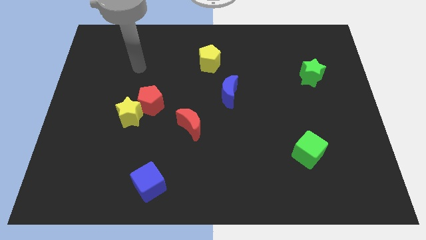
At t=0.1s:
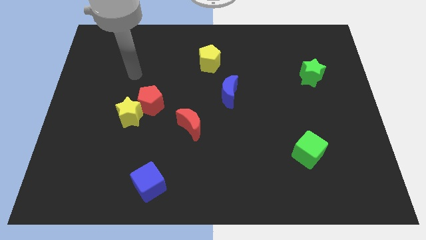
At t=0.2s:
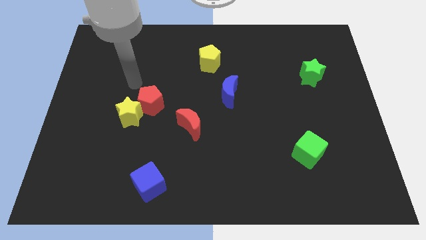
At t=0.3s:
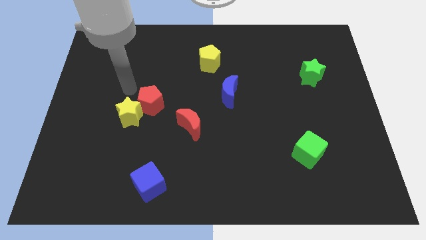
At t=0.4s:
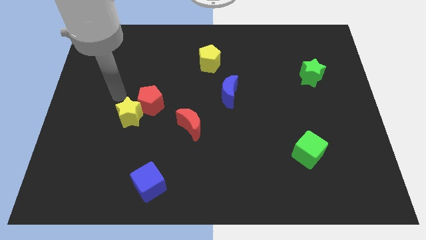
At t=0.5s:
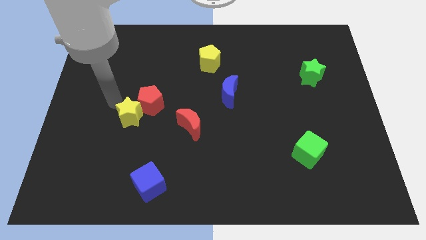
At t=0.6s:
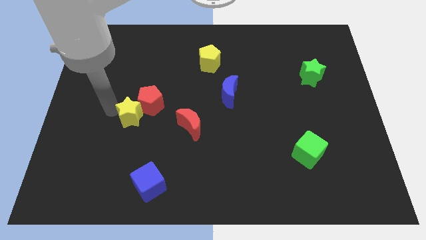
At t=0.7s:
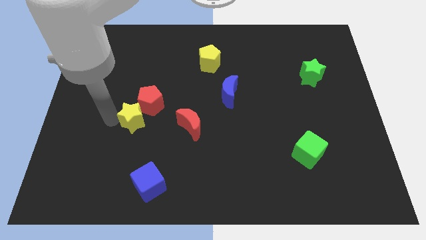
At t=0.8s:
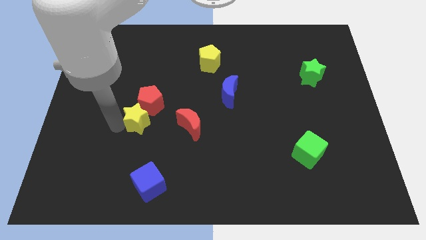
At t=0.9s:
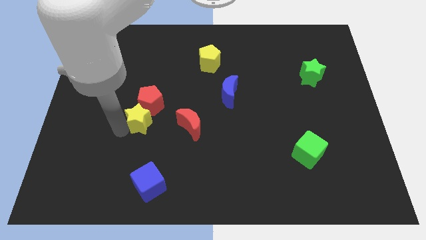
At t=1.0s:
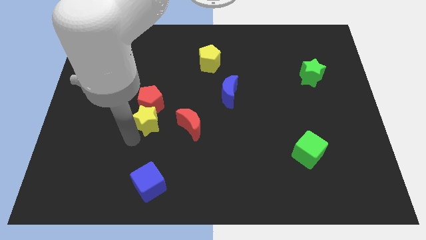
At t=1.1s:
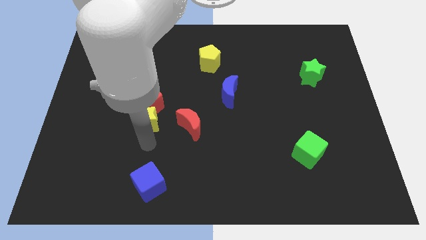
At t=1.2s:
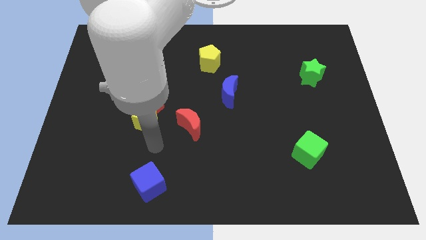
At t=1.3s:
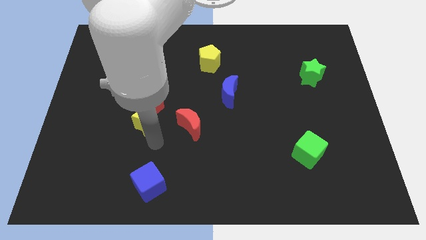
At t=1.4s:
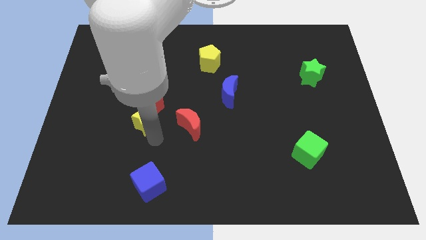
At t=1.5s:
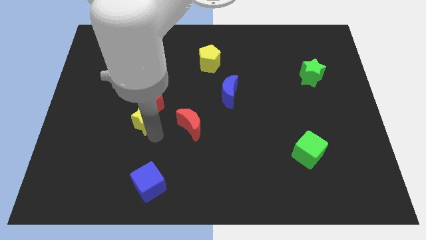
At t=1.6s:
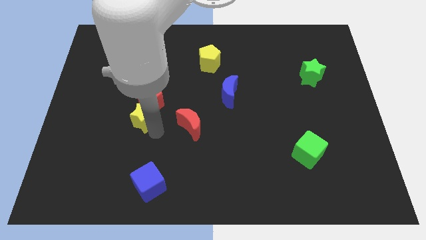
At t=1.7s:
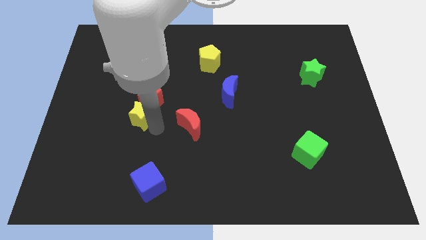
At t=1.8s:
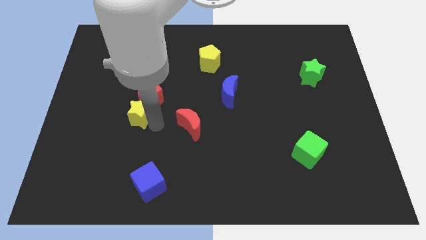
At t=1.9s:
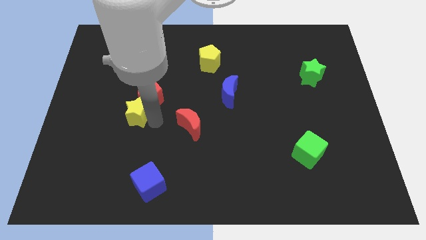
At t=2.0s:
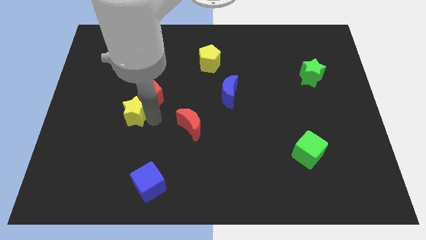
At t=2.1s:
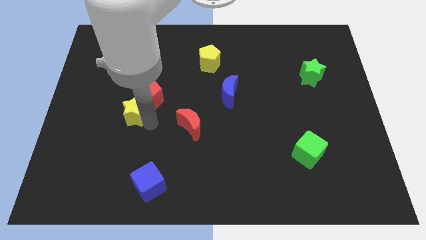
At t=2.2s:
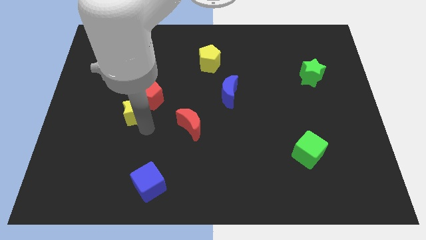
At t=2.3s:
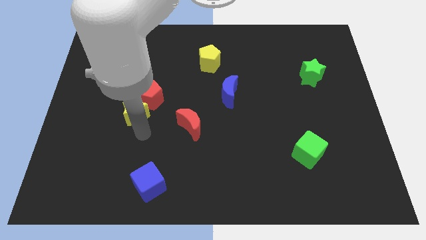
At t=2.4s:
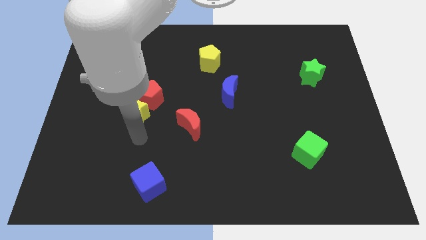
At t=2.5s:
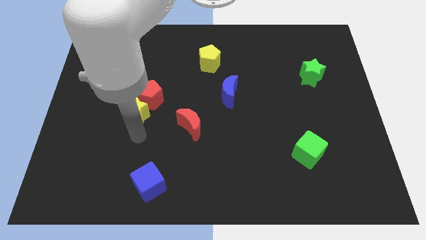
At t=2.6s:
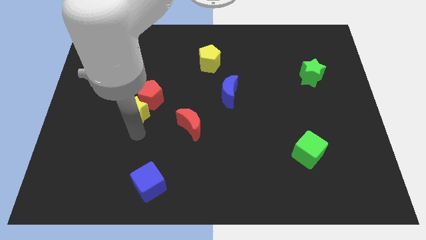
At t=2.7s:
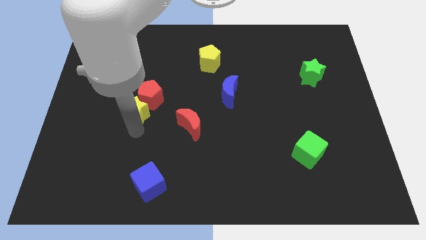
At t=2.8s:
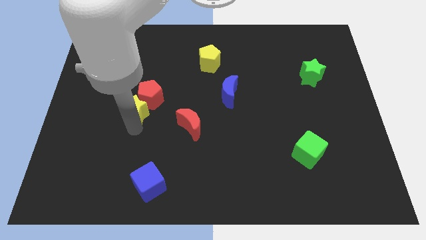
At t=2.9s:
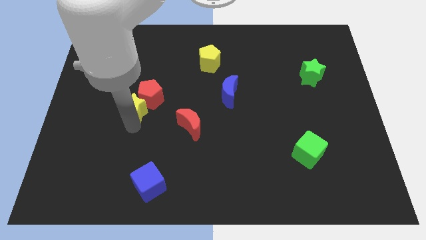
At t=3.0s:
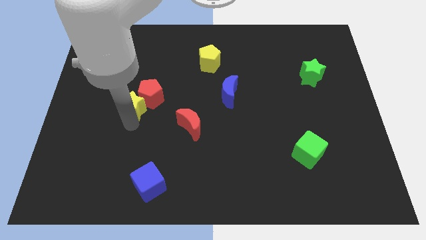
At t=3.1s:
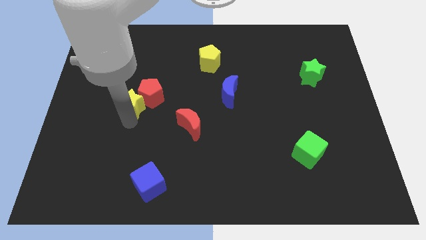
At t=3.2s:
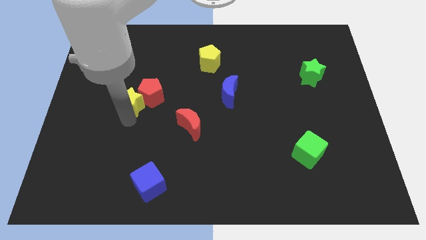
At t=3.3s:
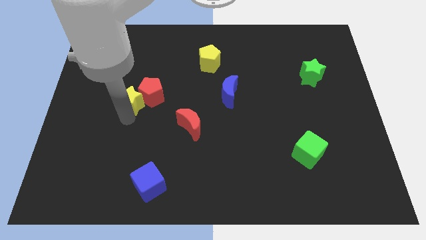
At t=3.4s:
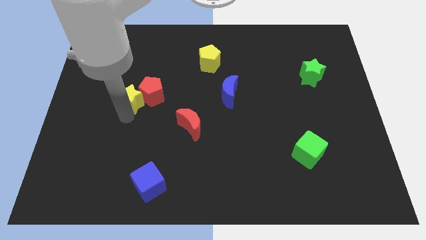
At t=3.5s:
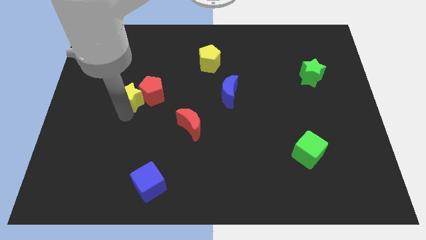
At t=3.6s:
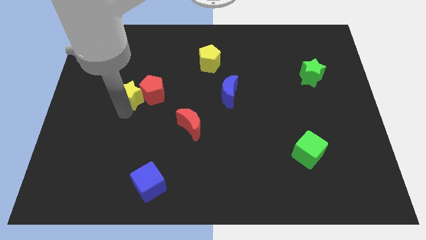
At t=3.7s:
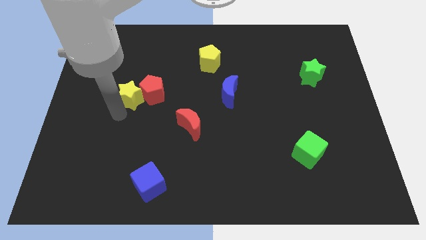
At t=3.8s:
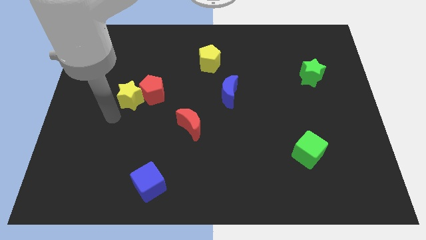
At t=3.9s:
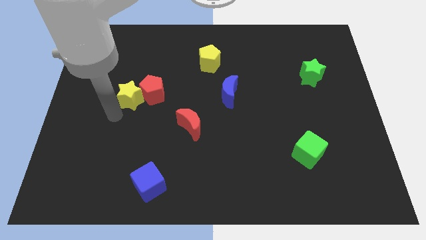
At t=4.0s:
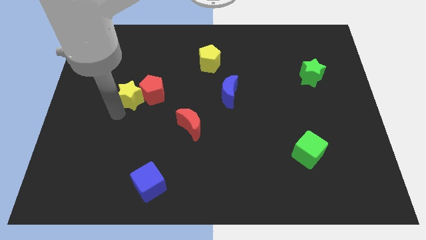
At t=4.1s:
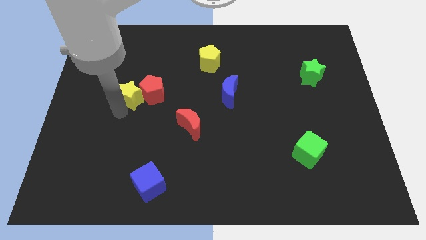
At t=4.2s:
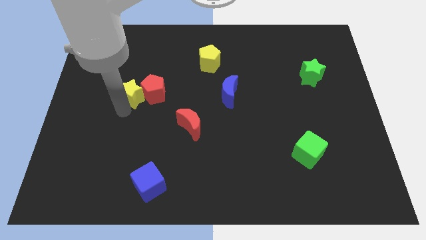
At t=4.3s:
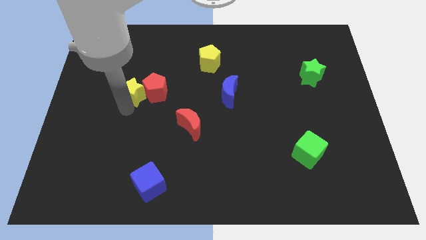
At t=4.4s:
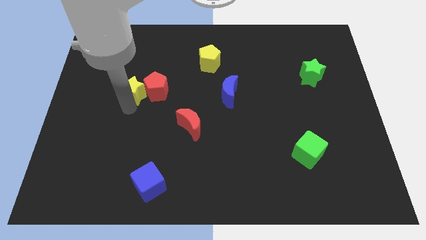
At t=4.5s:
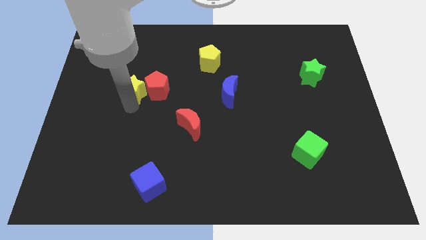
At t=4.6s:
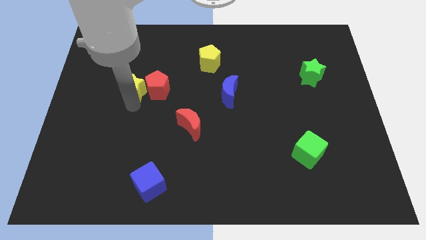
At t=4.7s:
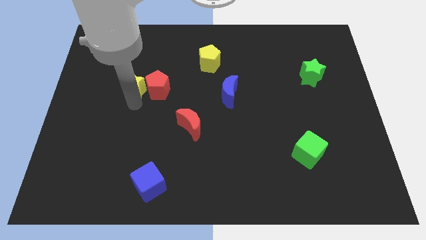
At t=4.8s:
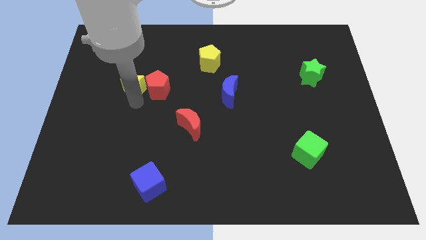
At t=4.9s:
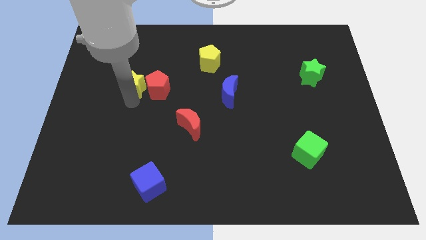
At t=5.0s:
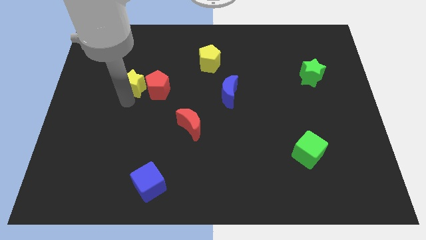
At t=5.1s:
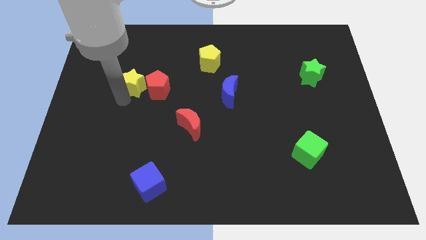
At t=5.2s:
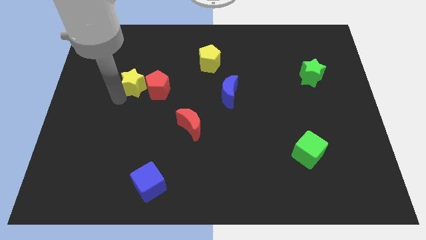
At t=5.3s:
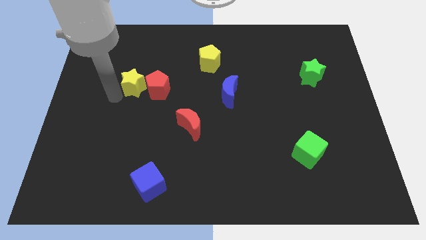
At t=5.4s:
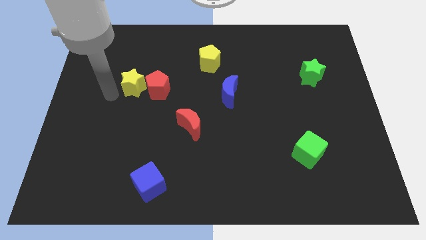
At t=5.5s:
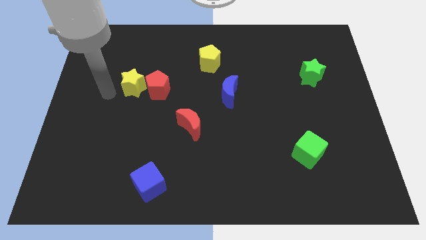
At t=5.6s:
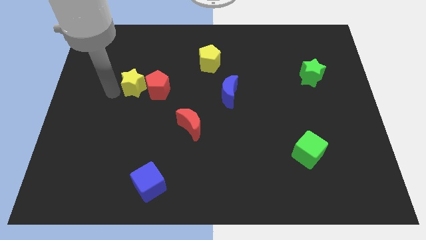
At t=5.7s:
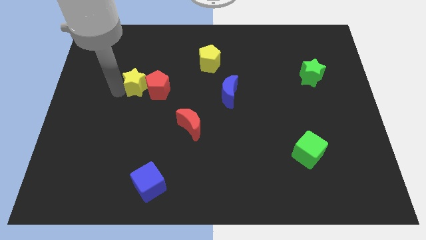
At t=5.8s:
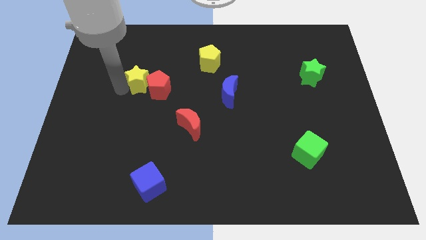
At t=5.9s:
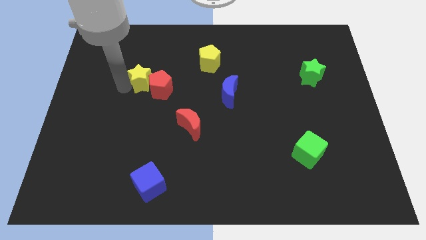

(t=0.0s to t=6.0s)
push the yellow star a bit up and to the right diagonally

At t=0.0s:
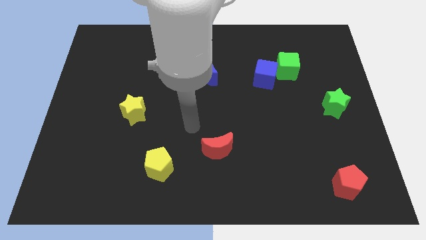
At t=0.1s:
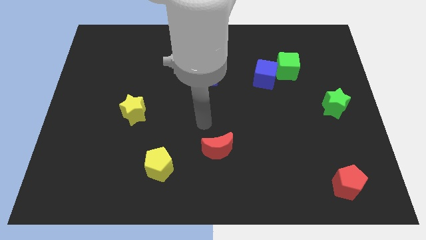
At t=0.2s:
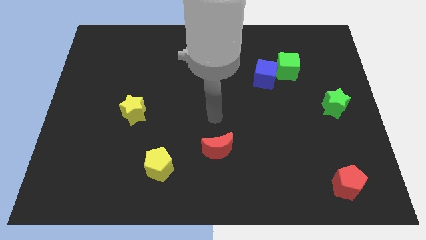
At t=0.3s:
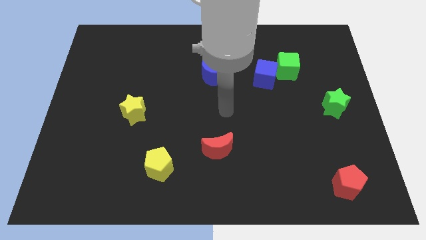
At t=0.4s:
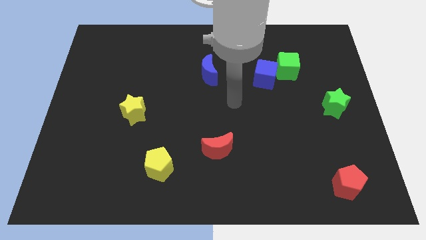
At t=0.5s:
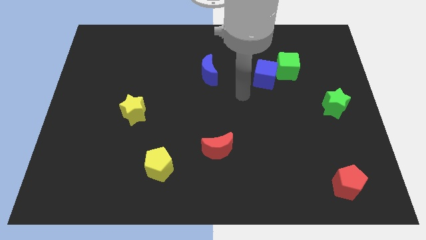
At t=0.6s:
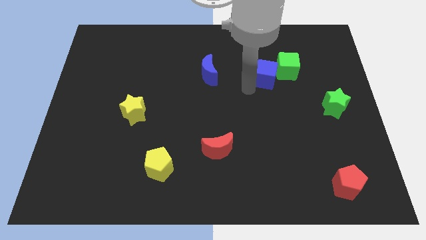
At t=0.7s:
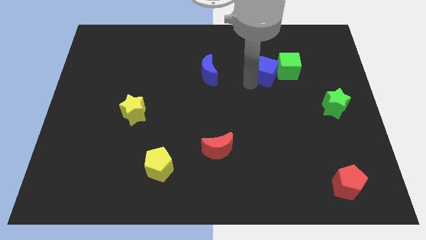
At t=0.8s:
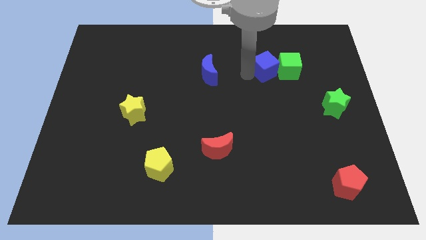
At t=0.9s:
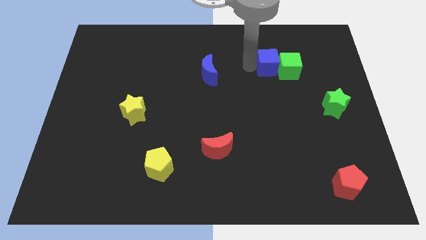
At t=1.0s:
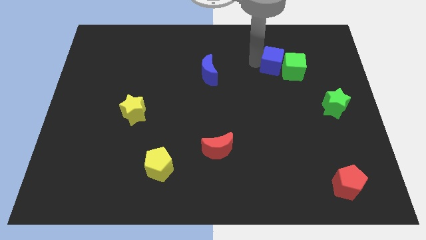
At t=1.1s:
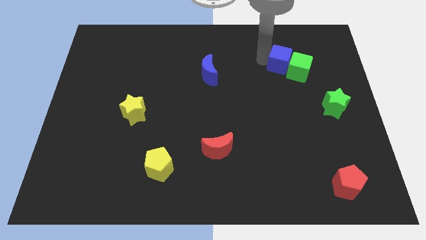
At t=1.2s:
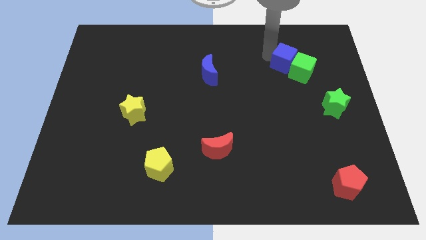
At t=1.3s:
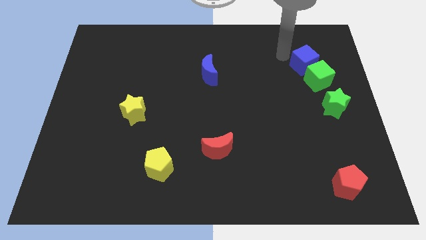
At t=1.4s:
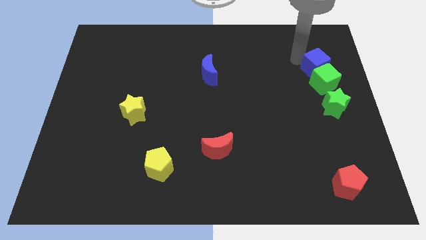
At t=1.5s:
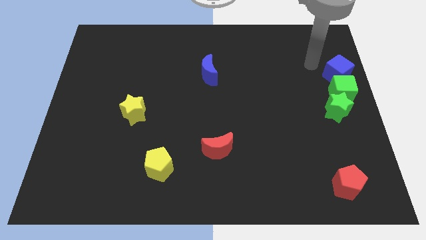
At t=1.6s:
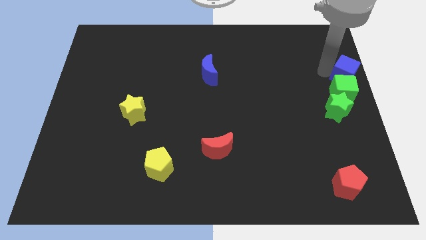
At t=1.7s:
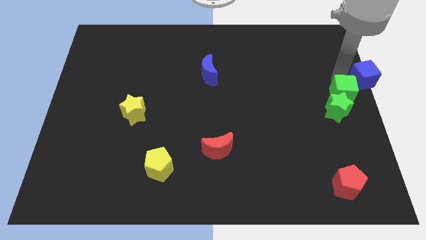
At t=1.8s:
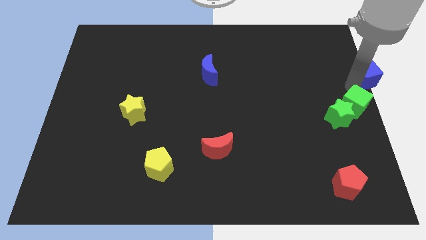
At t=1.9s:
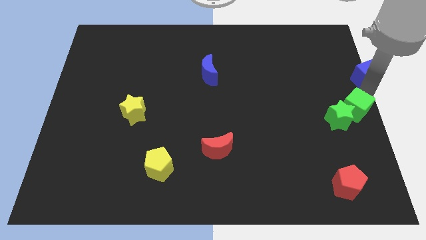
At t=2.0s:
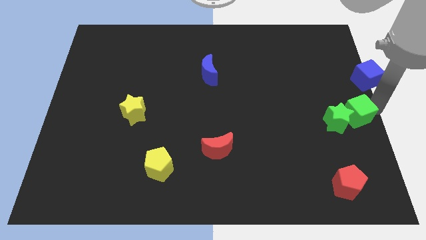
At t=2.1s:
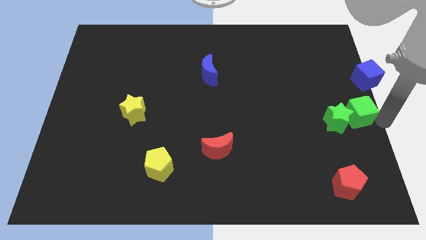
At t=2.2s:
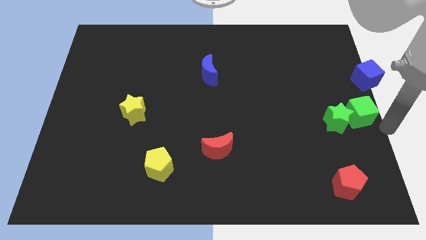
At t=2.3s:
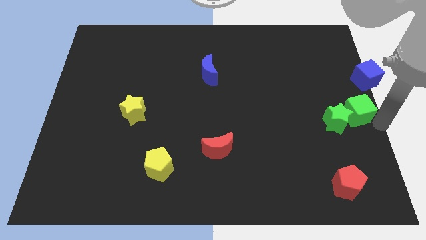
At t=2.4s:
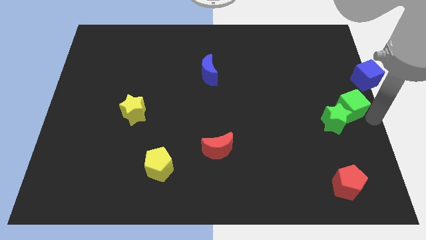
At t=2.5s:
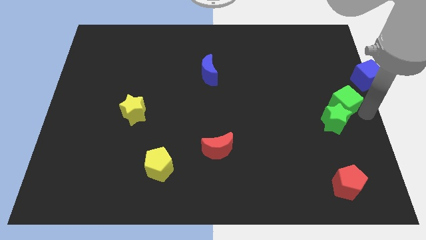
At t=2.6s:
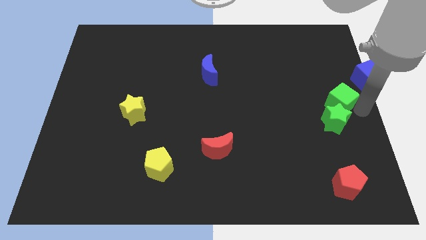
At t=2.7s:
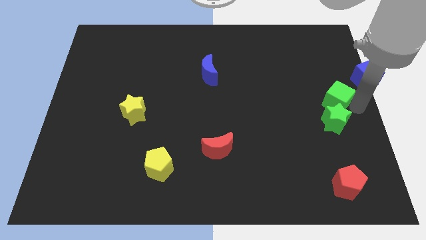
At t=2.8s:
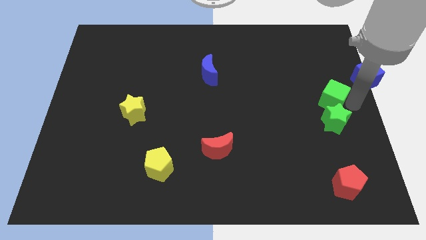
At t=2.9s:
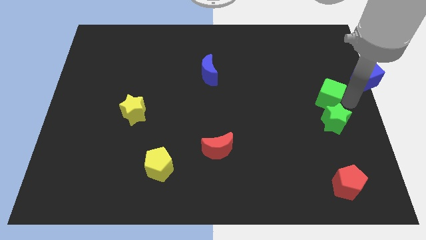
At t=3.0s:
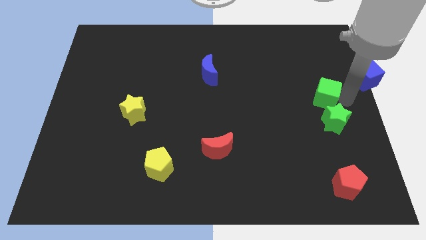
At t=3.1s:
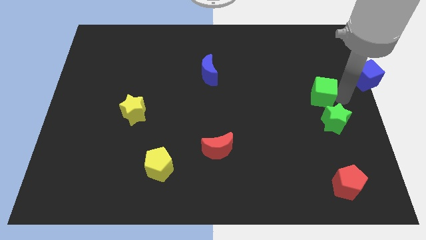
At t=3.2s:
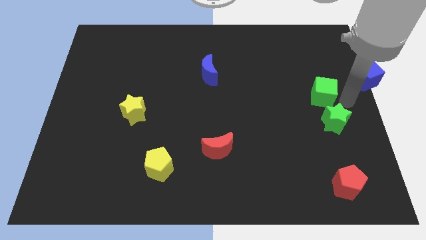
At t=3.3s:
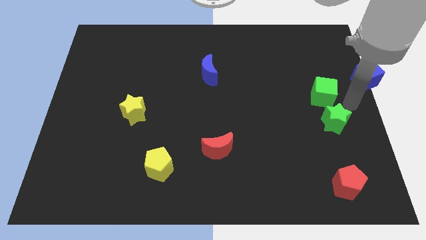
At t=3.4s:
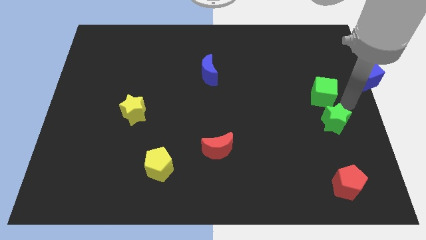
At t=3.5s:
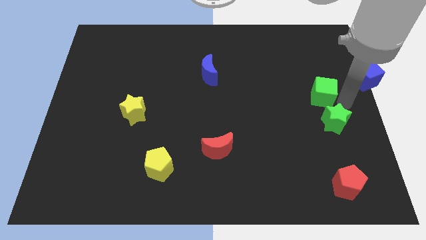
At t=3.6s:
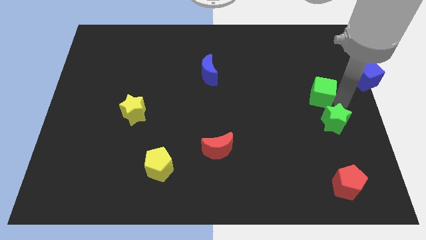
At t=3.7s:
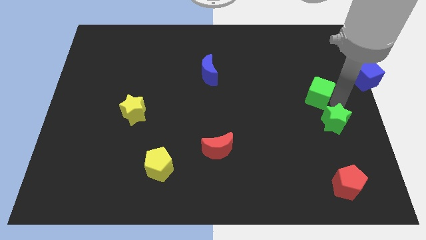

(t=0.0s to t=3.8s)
slightly slide the green cube downwards
